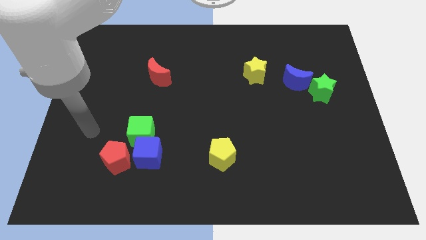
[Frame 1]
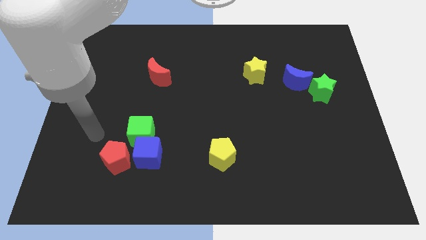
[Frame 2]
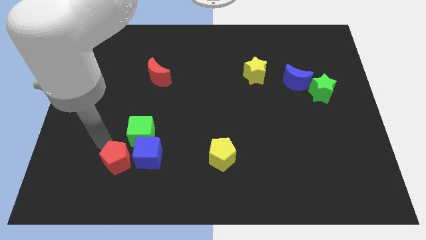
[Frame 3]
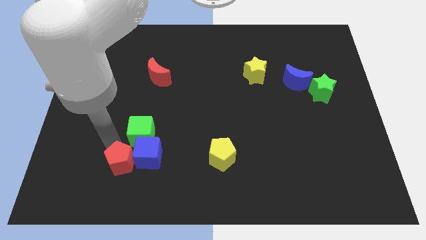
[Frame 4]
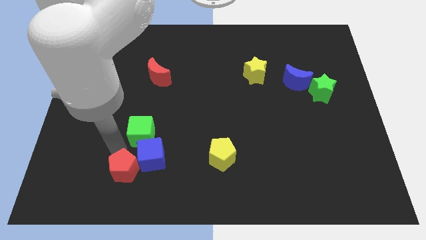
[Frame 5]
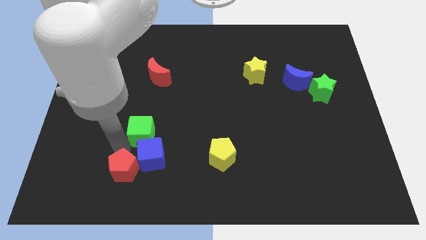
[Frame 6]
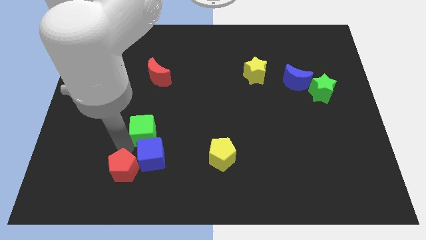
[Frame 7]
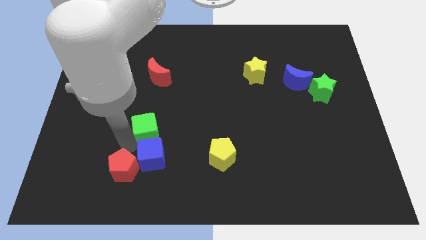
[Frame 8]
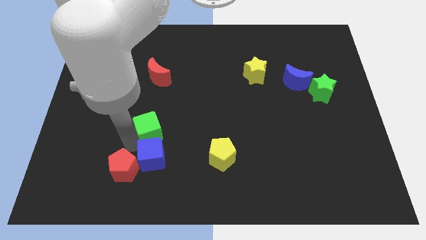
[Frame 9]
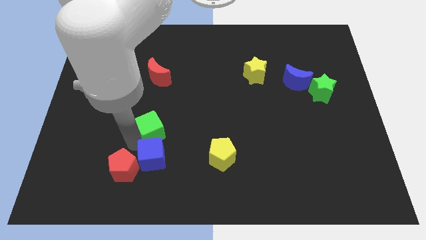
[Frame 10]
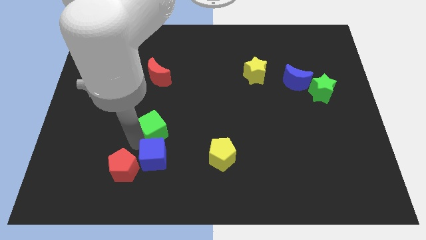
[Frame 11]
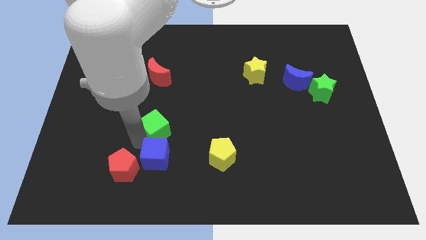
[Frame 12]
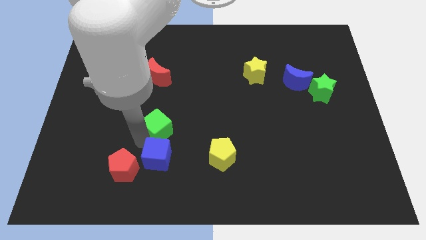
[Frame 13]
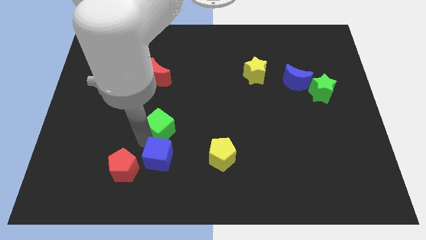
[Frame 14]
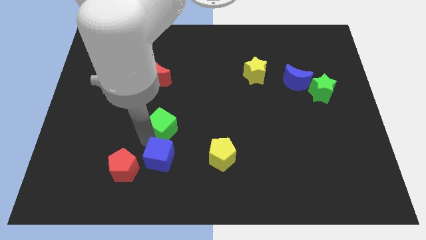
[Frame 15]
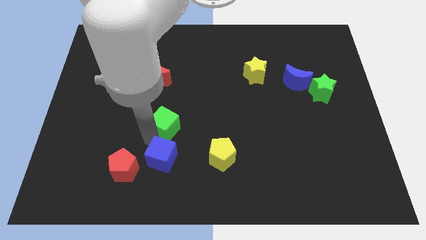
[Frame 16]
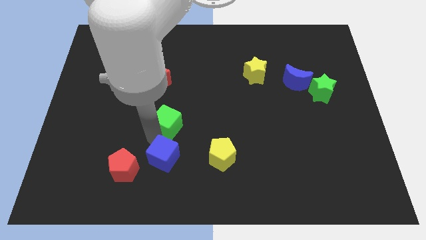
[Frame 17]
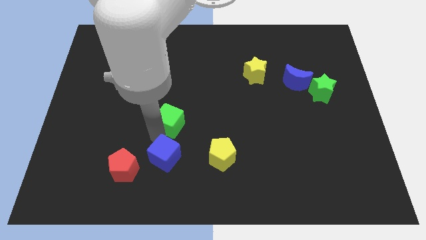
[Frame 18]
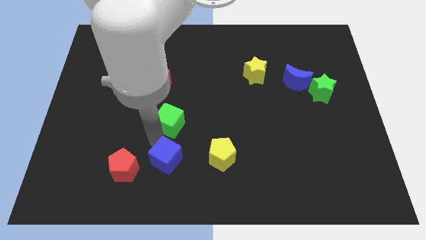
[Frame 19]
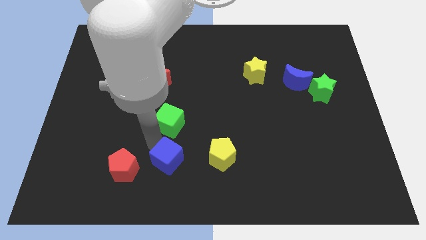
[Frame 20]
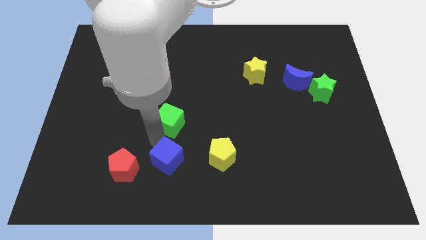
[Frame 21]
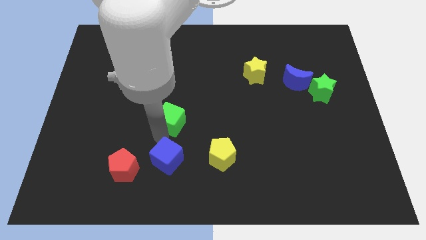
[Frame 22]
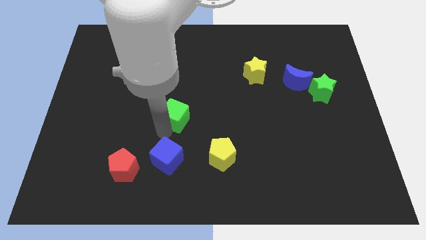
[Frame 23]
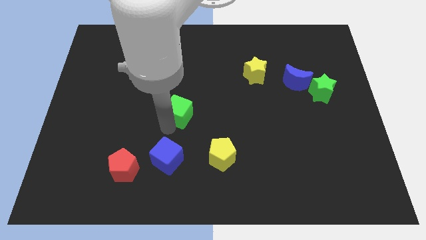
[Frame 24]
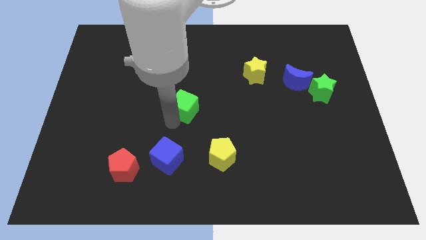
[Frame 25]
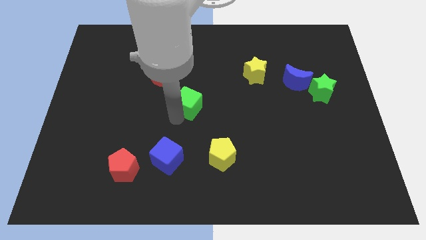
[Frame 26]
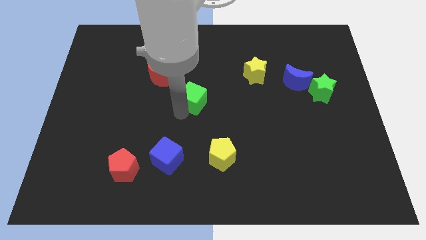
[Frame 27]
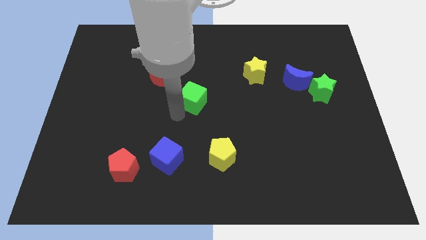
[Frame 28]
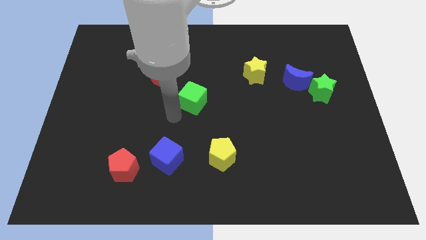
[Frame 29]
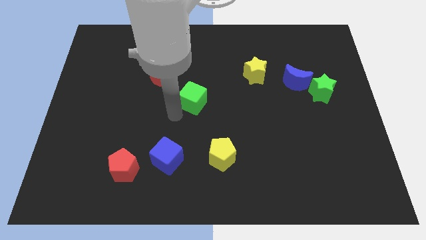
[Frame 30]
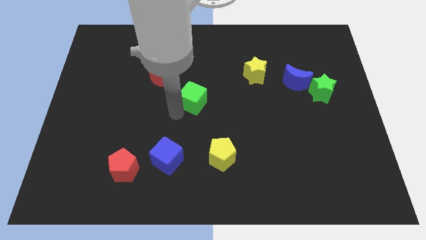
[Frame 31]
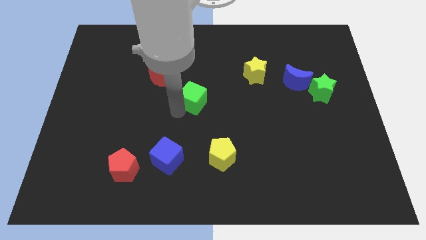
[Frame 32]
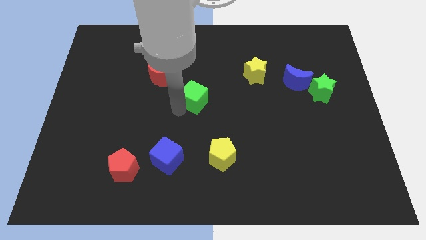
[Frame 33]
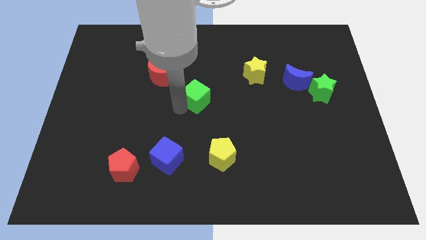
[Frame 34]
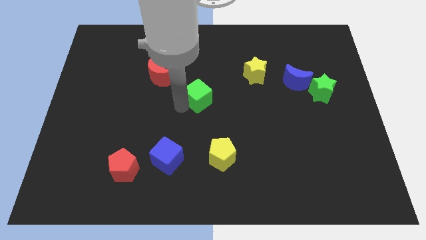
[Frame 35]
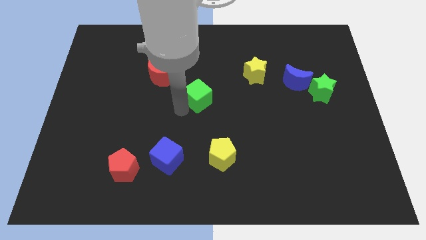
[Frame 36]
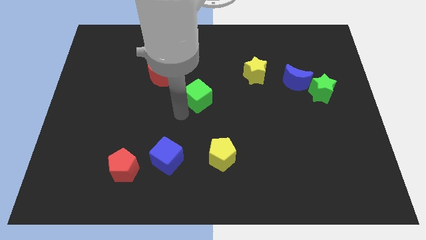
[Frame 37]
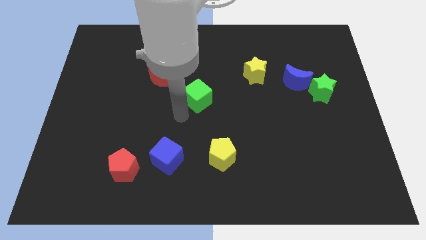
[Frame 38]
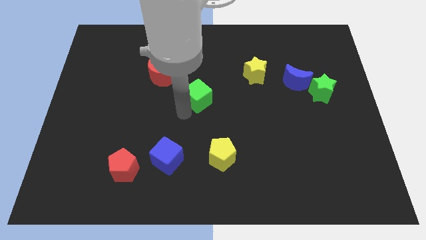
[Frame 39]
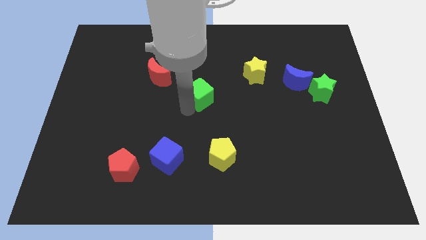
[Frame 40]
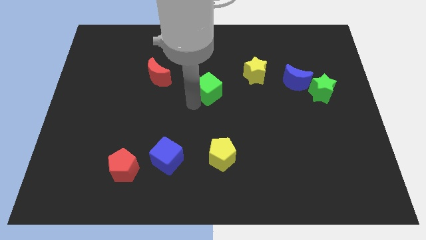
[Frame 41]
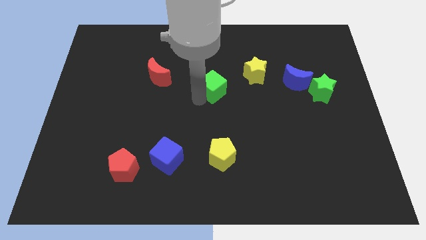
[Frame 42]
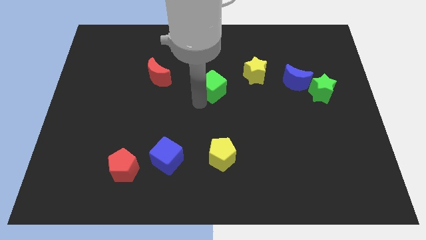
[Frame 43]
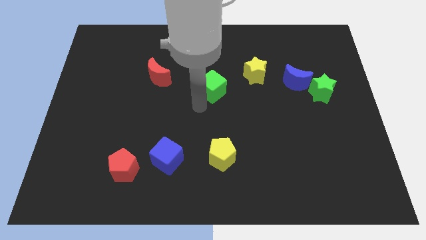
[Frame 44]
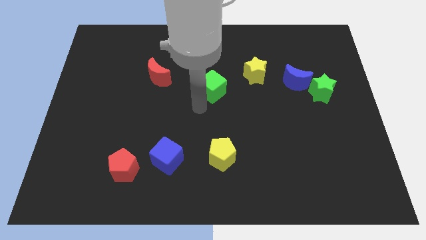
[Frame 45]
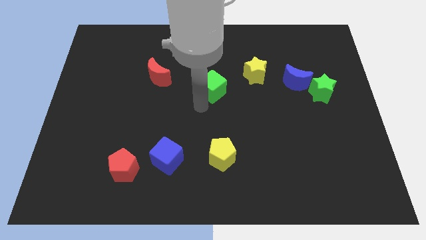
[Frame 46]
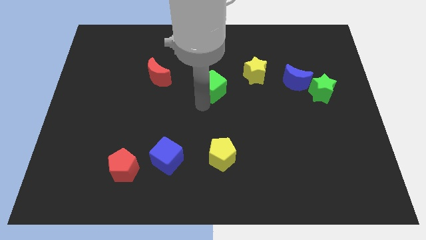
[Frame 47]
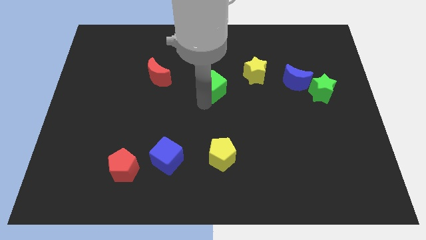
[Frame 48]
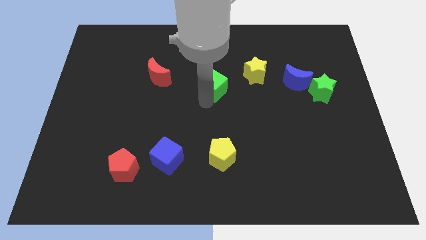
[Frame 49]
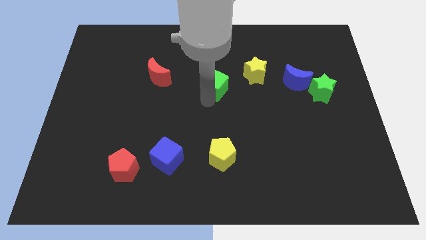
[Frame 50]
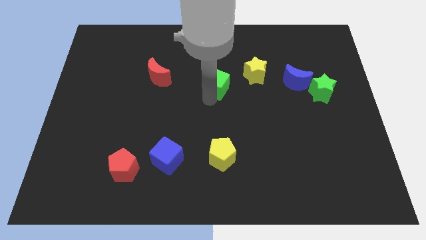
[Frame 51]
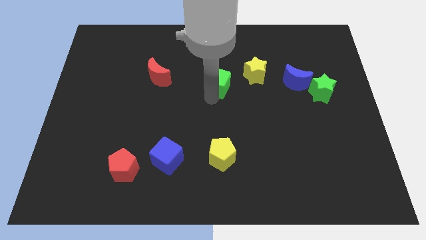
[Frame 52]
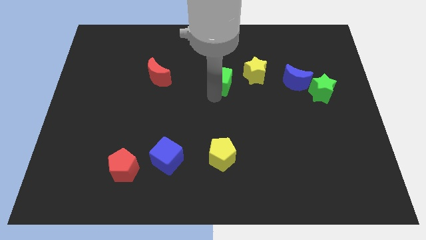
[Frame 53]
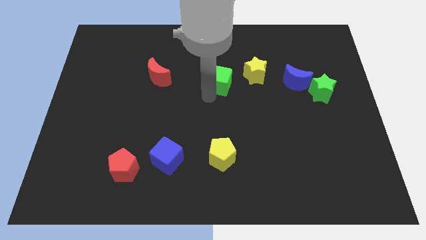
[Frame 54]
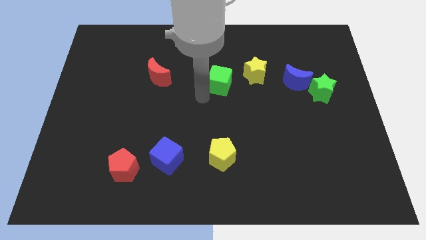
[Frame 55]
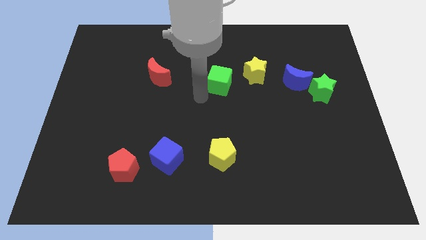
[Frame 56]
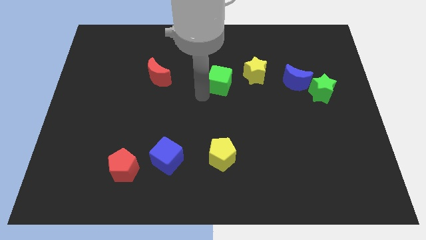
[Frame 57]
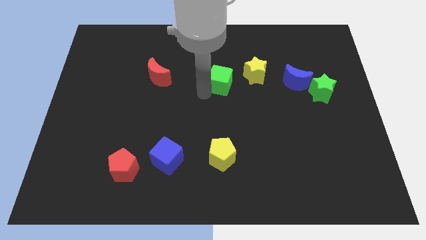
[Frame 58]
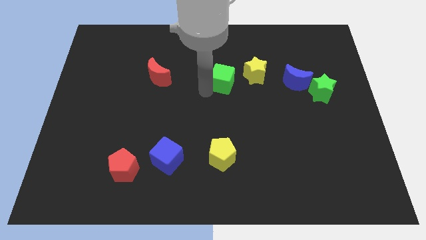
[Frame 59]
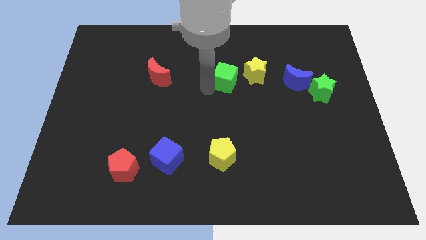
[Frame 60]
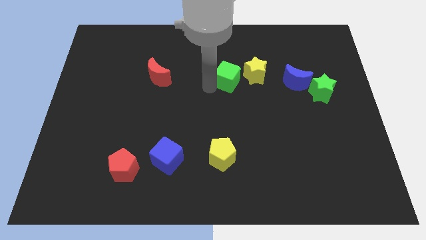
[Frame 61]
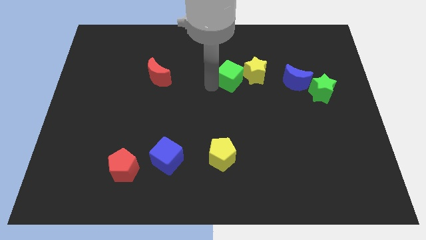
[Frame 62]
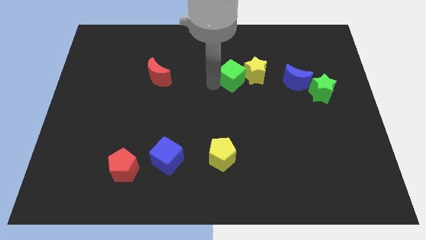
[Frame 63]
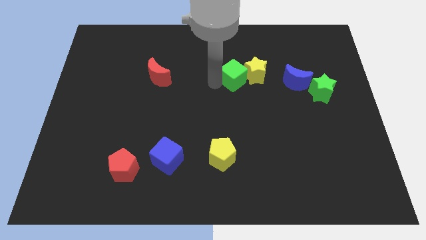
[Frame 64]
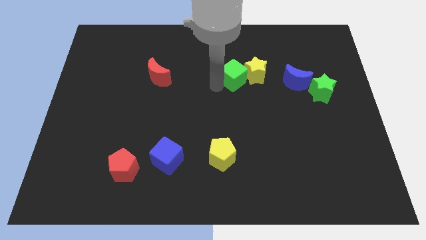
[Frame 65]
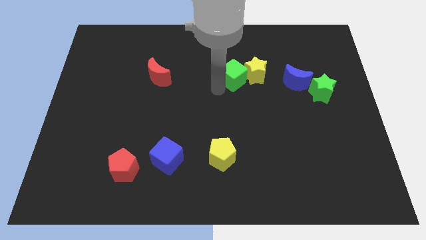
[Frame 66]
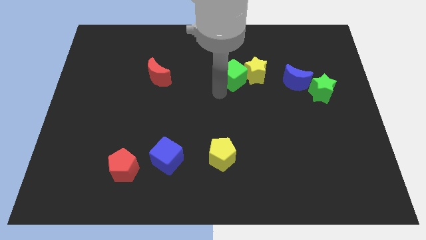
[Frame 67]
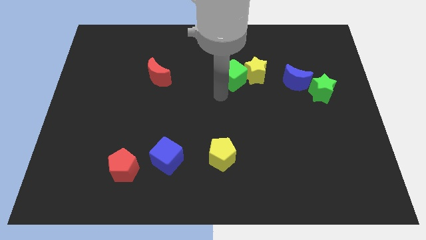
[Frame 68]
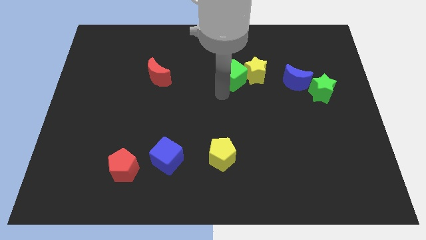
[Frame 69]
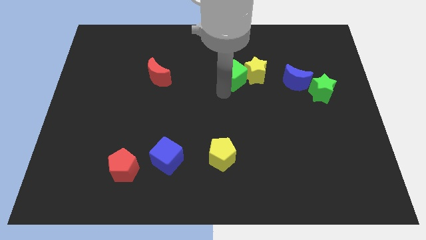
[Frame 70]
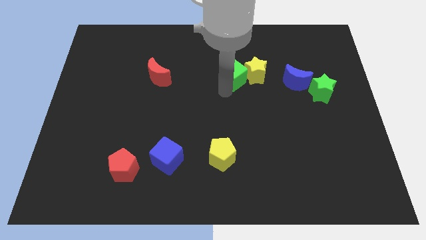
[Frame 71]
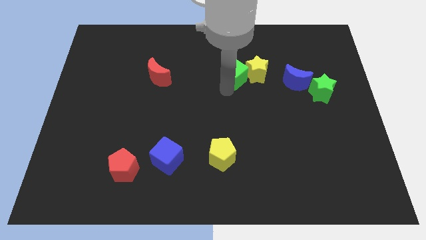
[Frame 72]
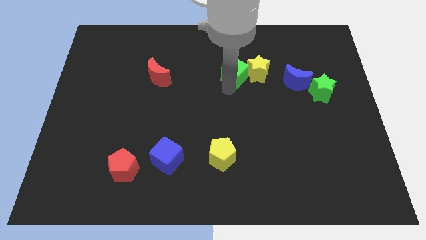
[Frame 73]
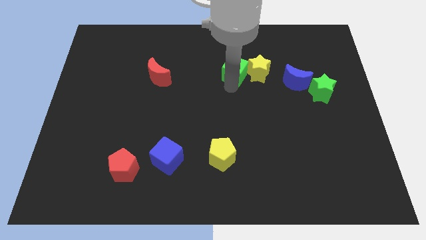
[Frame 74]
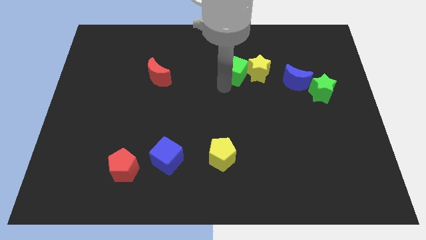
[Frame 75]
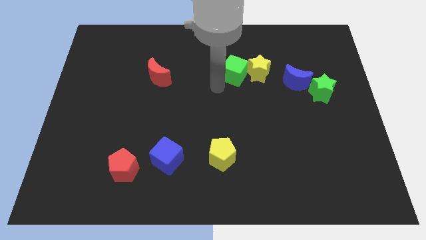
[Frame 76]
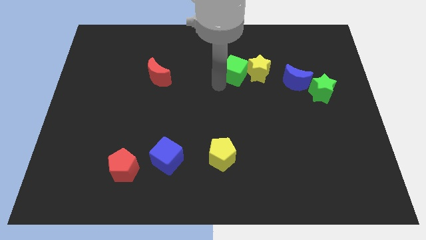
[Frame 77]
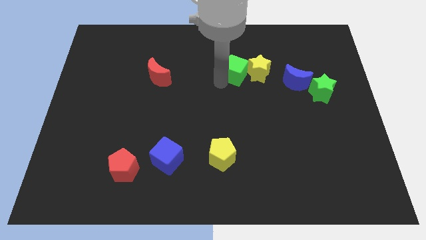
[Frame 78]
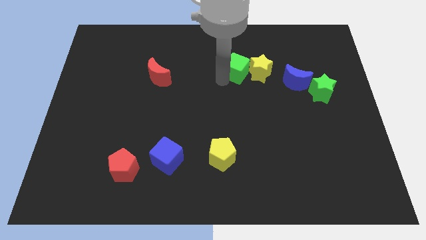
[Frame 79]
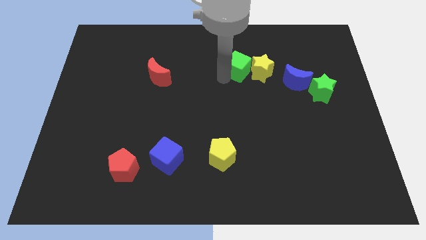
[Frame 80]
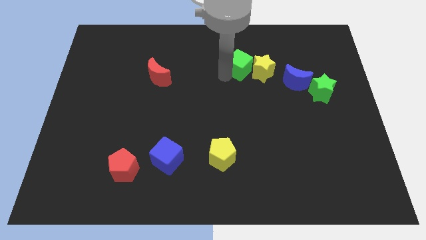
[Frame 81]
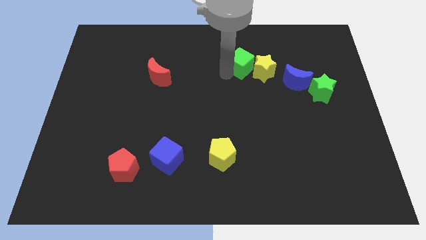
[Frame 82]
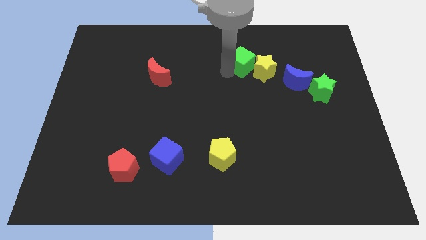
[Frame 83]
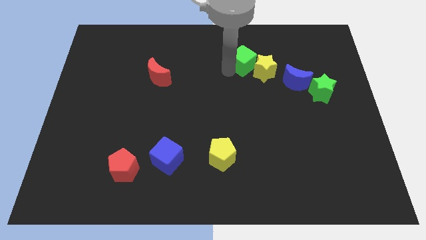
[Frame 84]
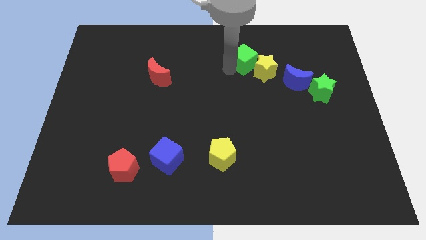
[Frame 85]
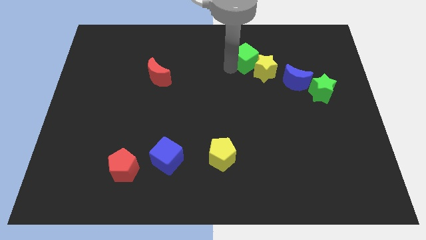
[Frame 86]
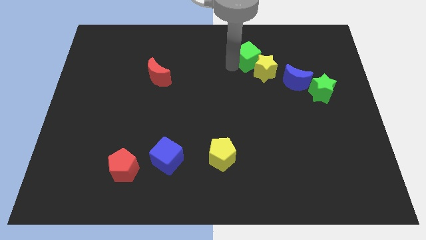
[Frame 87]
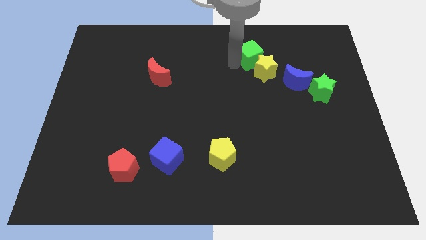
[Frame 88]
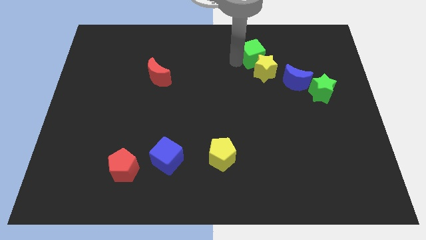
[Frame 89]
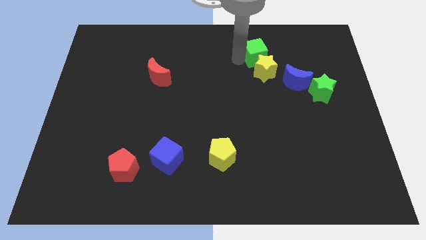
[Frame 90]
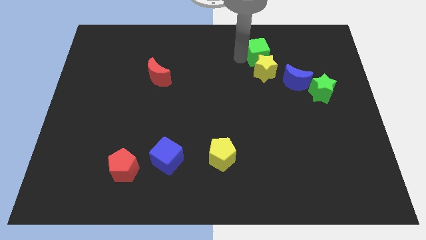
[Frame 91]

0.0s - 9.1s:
put the green cube diagonally up and to the right of the yellow star
